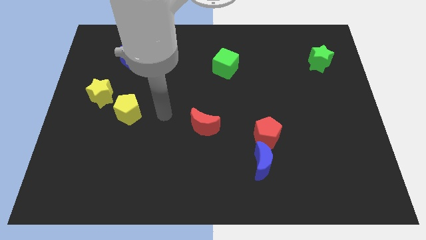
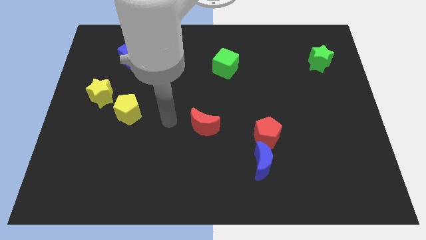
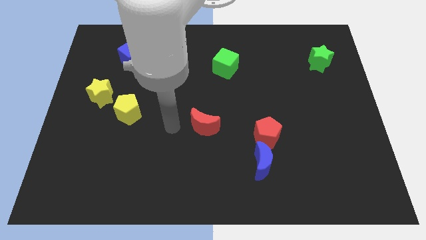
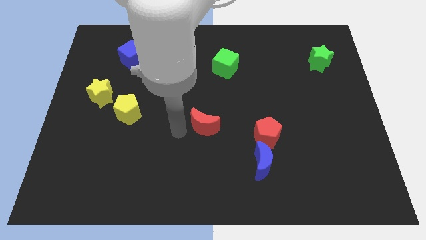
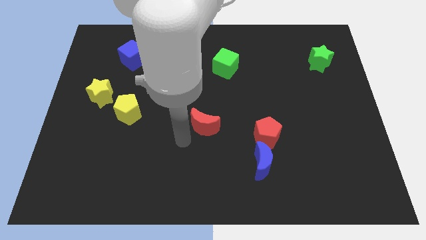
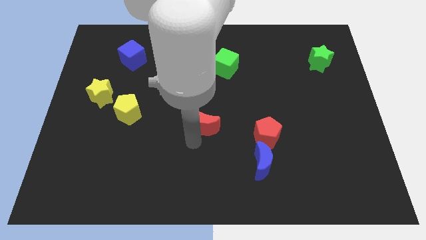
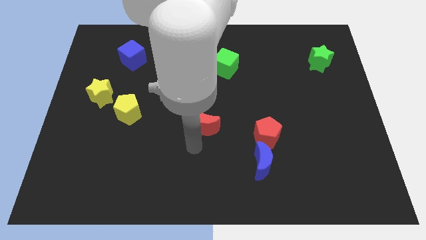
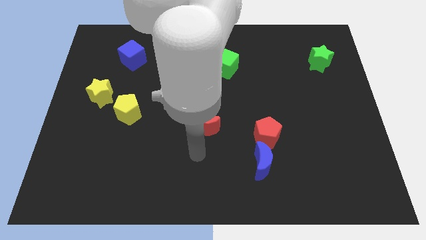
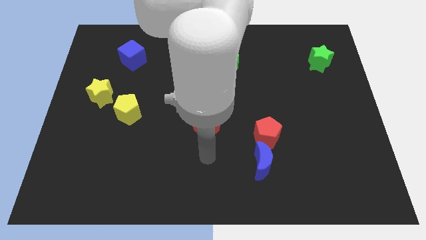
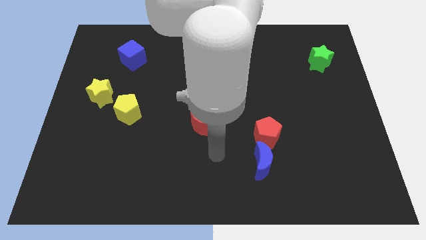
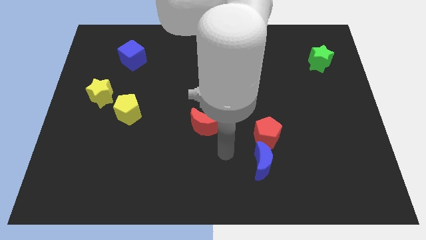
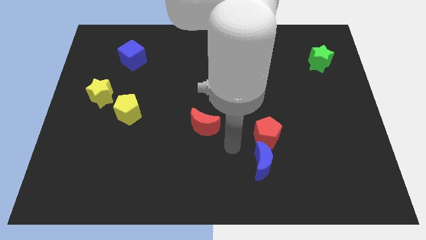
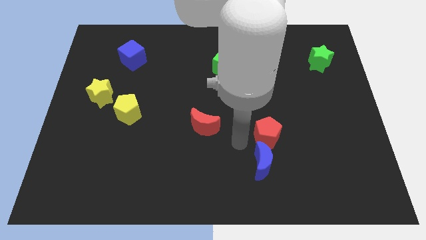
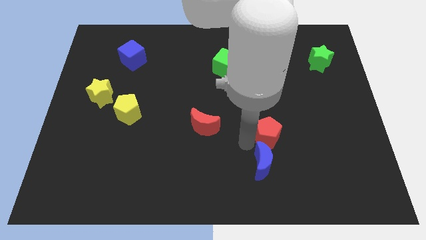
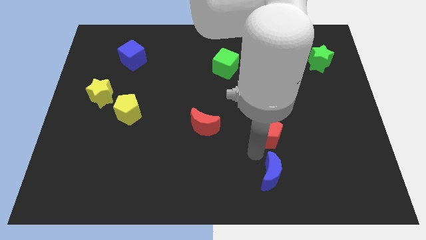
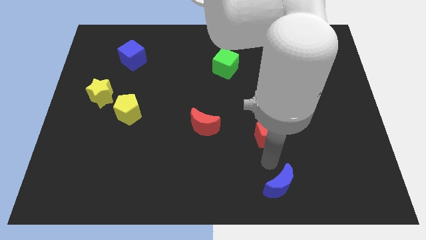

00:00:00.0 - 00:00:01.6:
move the red pentagon away from the blue moon

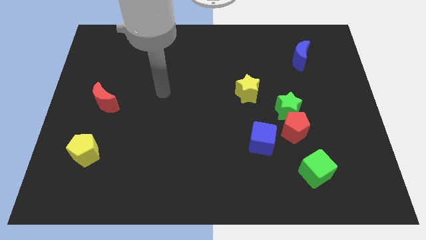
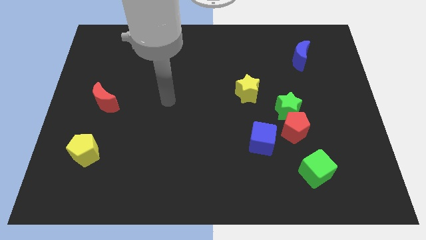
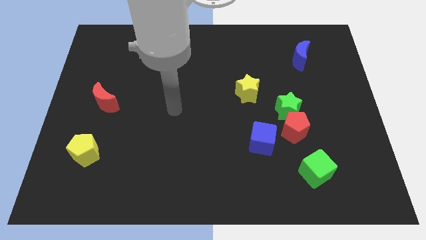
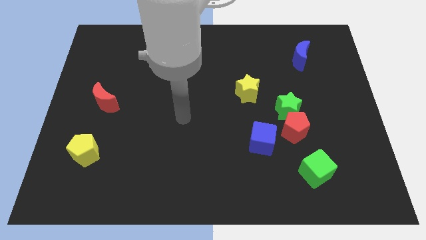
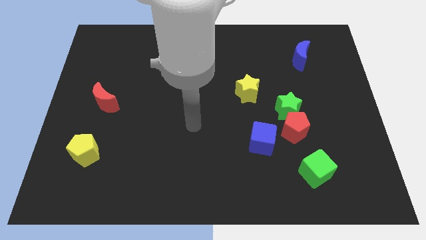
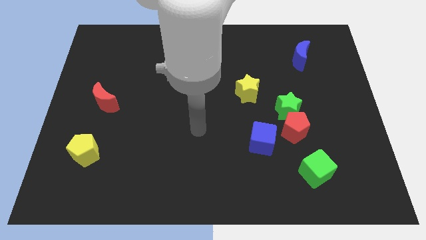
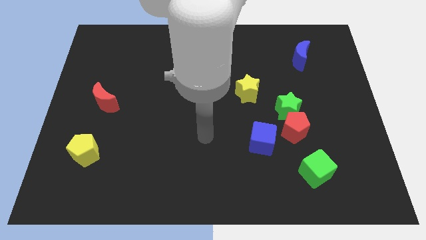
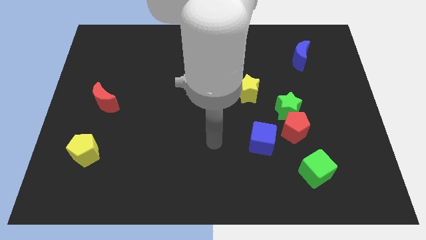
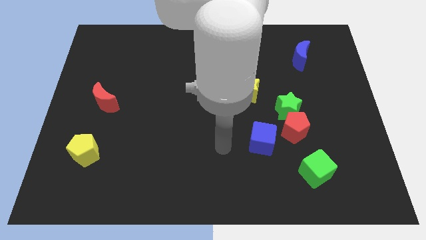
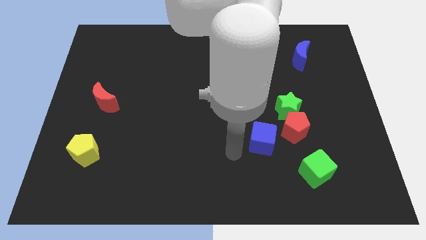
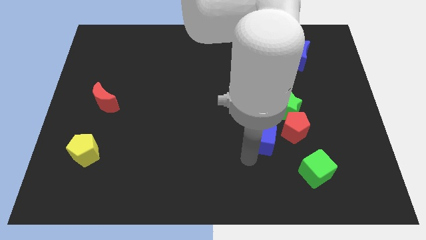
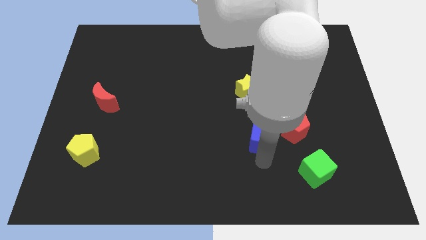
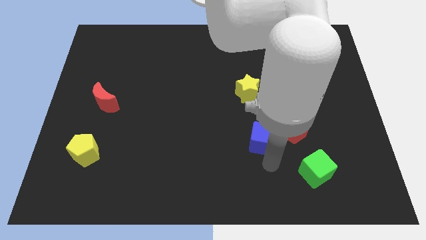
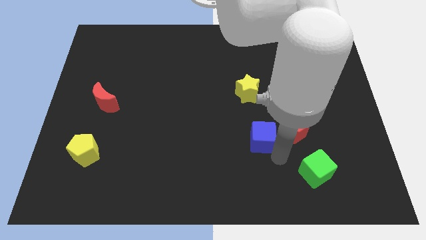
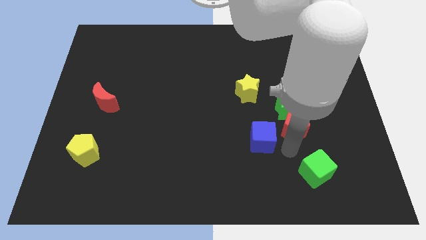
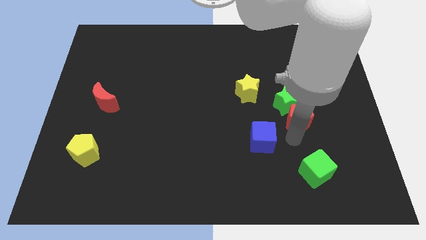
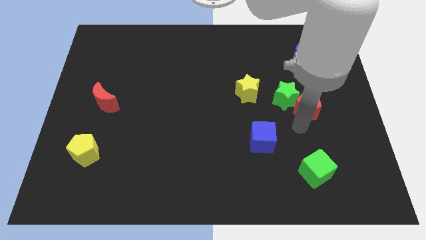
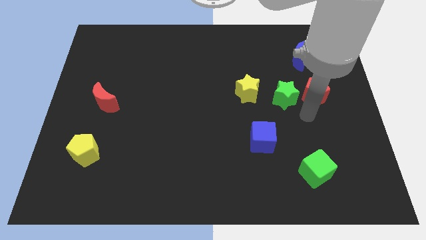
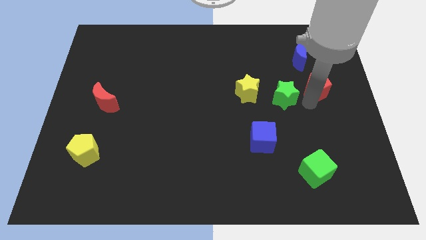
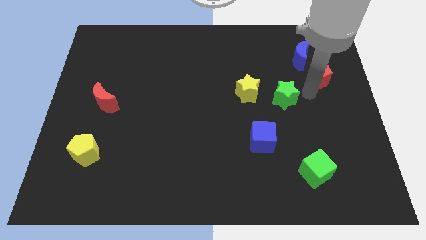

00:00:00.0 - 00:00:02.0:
move the green star away from the red pentagon

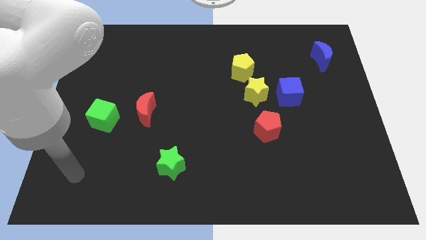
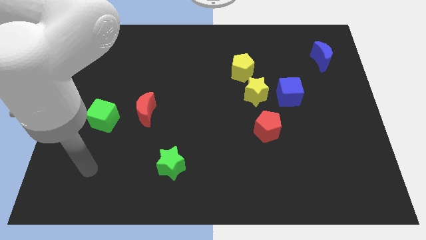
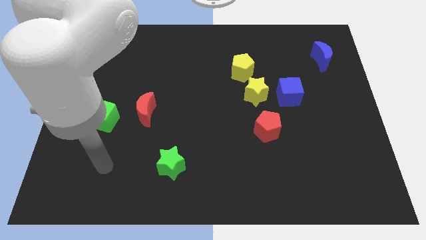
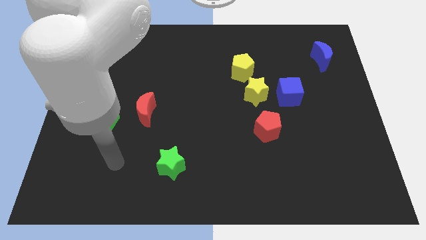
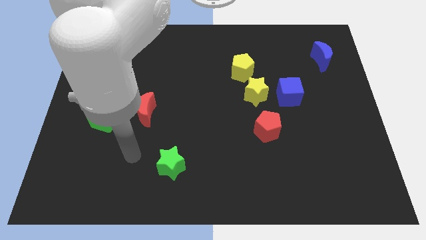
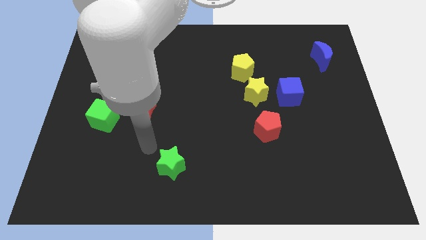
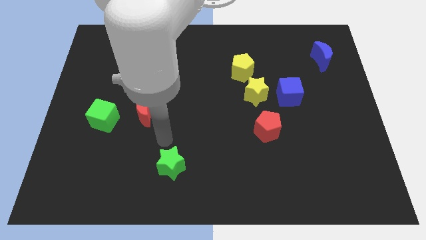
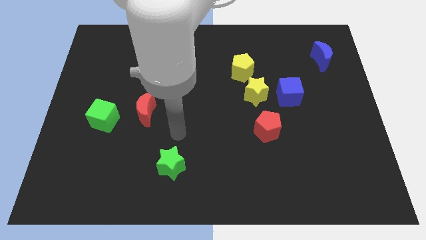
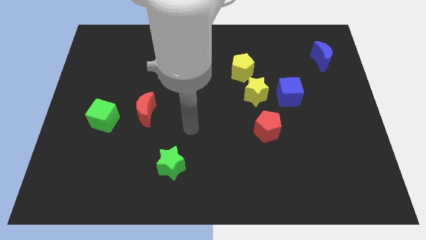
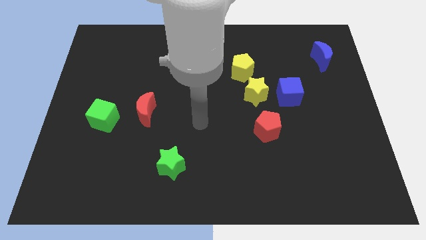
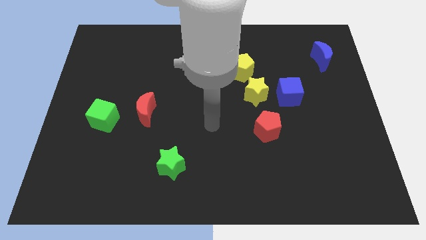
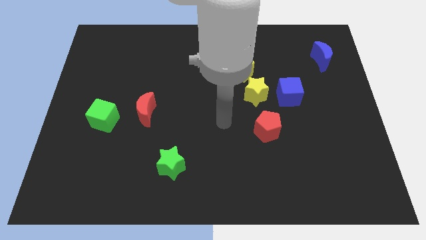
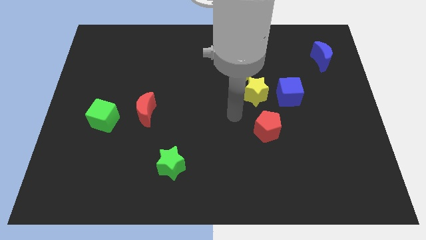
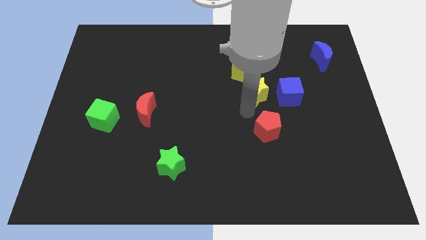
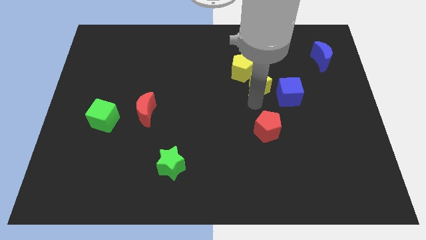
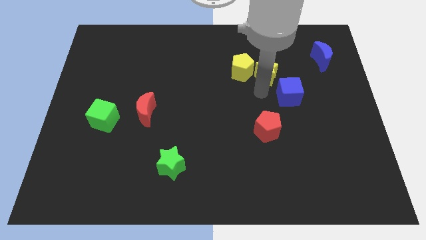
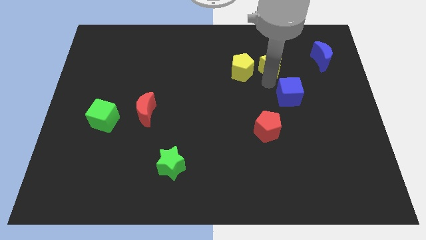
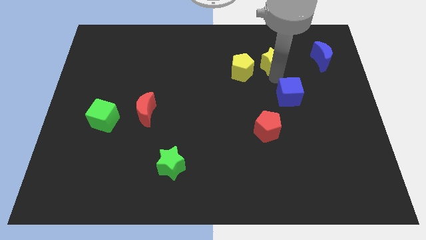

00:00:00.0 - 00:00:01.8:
move the blue cube away from the yellow star

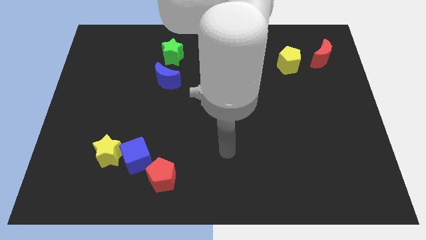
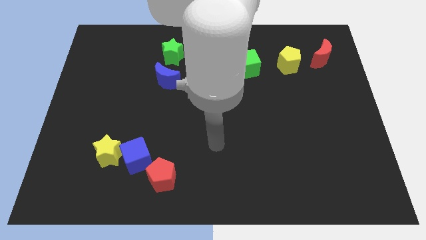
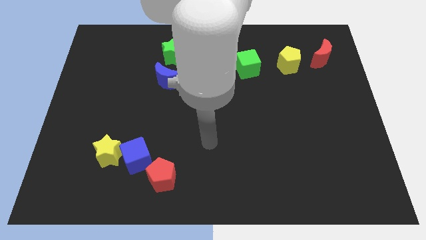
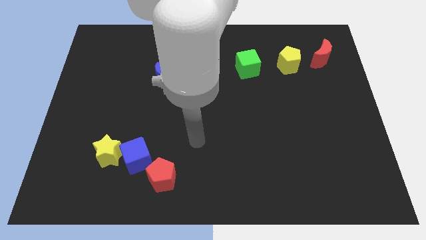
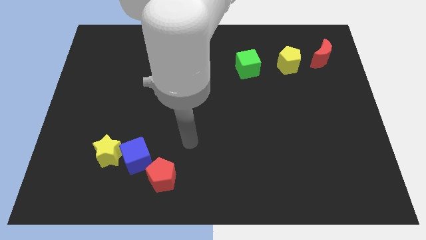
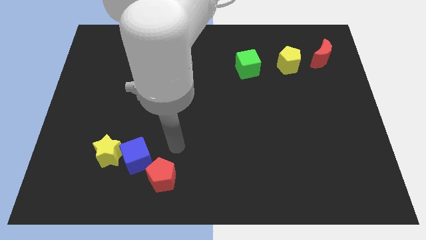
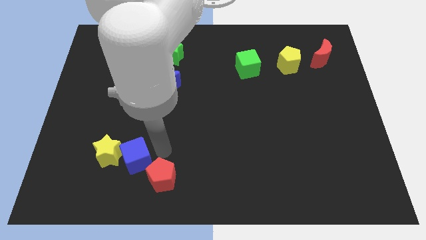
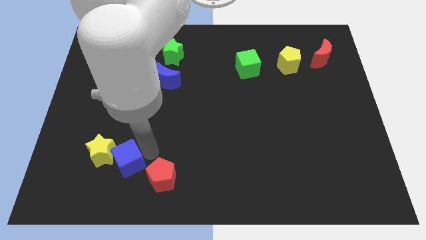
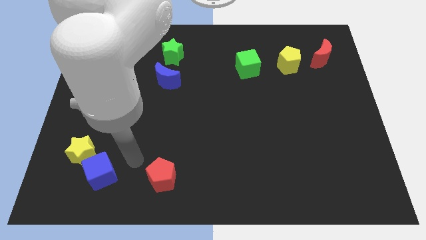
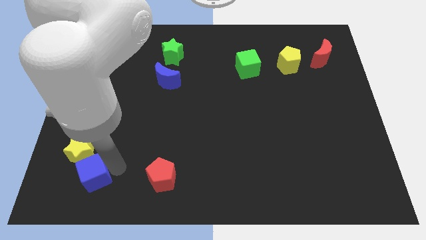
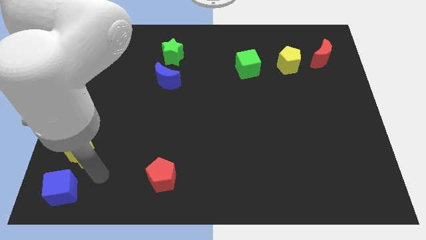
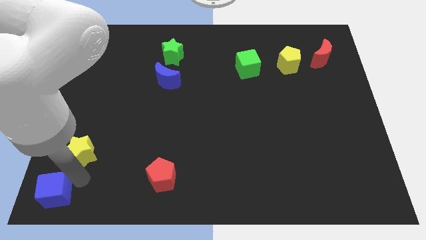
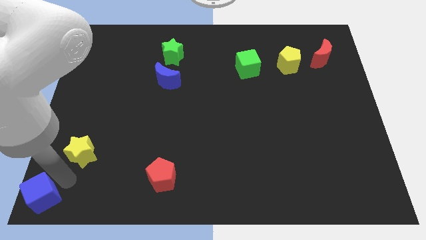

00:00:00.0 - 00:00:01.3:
separate the yellow star from the blue cube

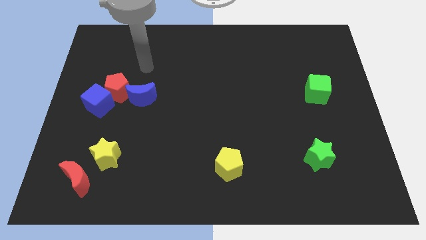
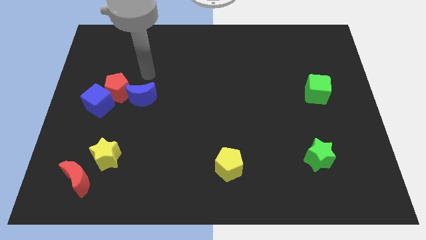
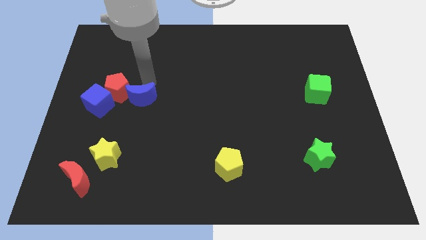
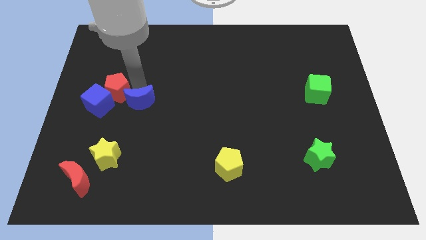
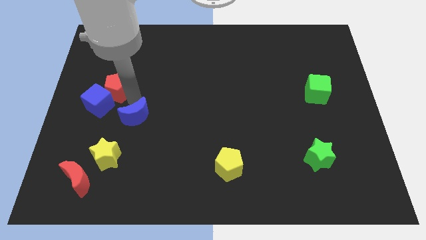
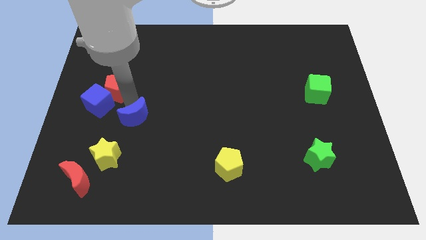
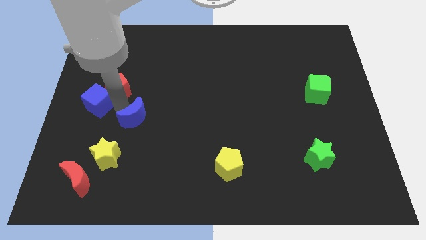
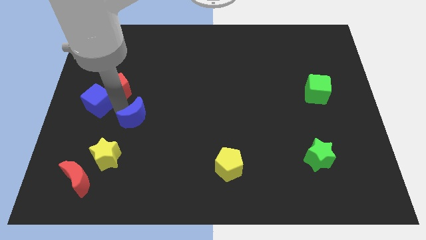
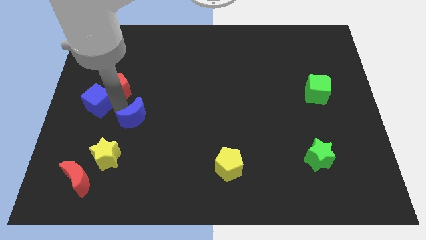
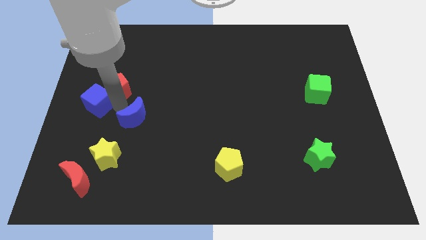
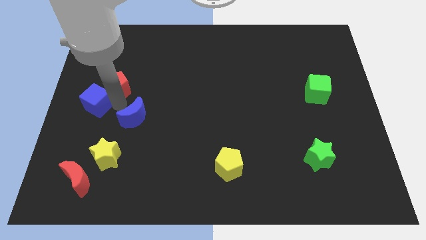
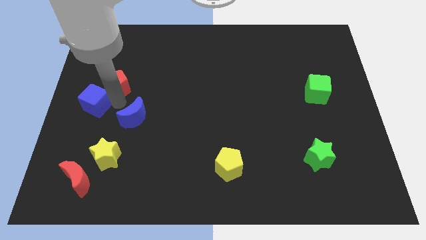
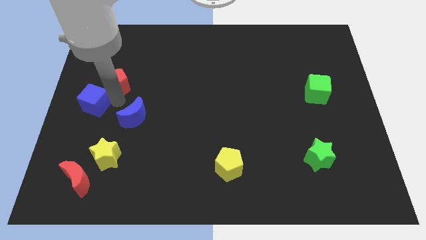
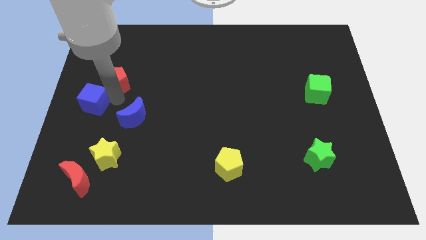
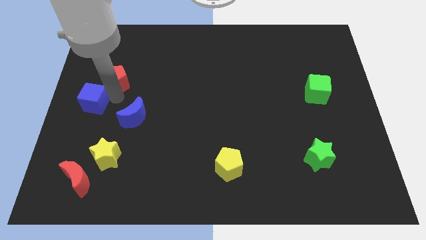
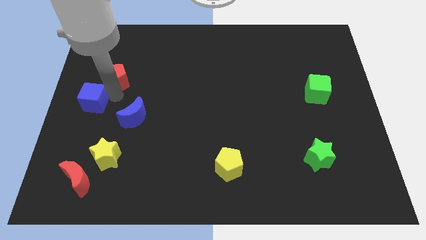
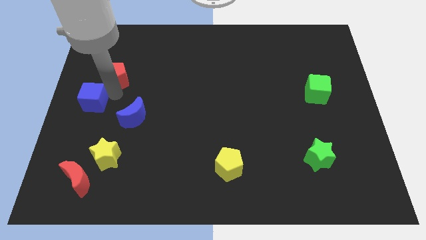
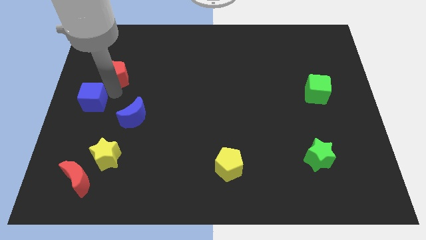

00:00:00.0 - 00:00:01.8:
separate the red pentagon from the blue cube and blue moon

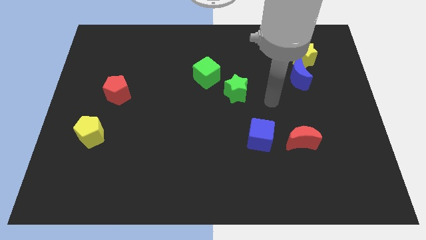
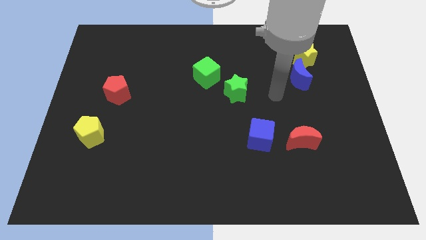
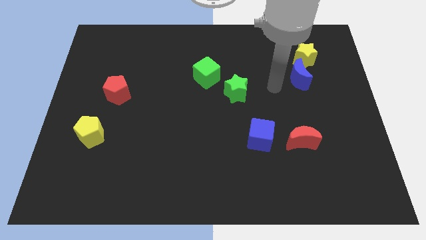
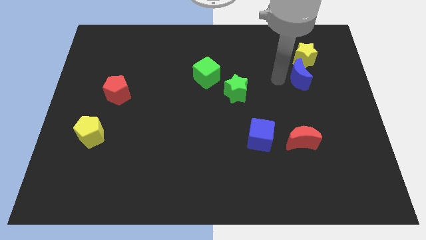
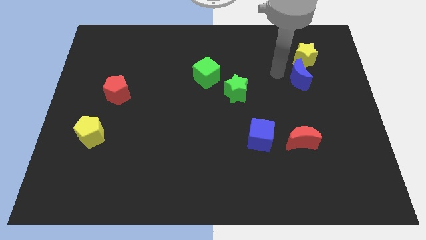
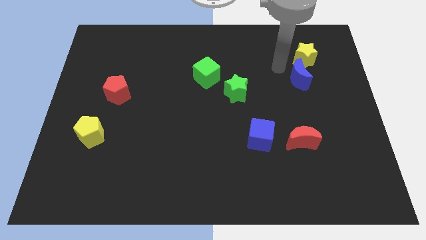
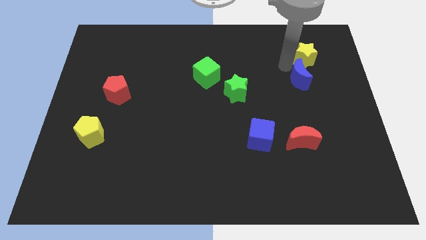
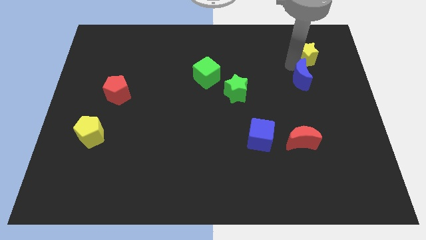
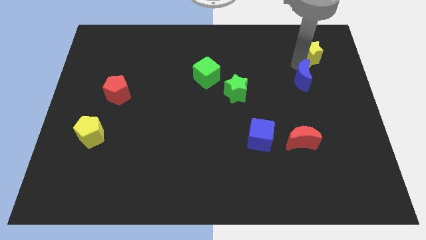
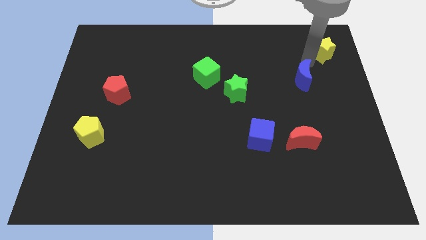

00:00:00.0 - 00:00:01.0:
move the blue moon away from the yellow star
